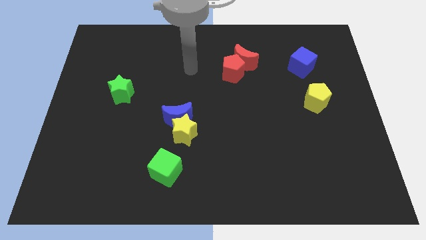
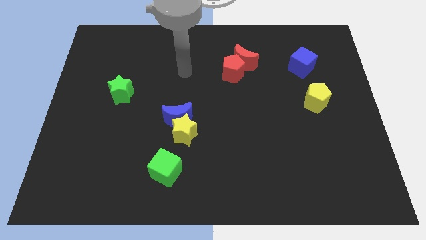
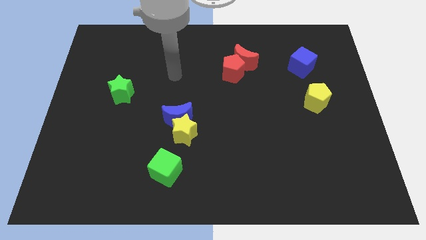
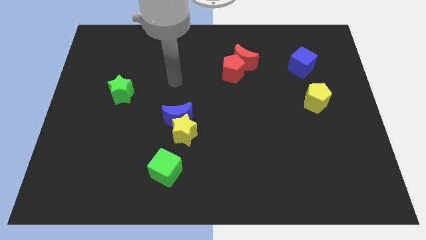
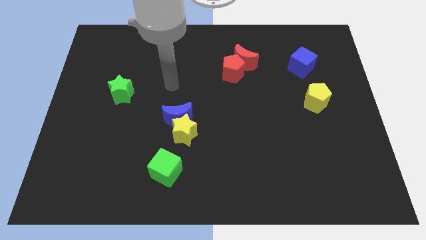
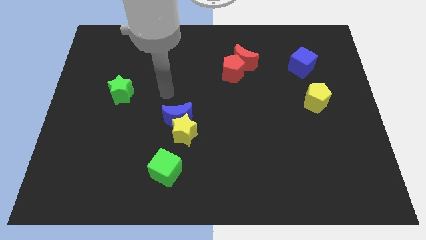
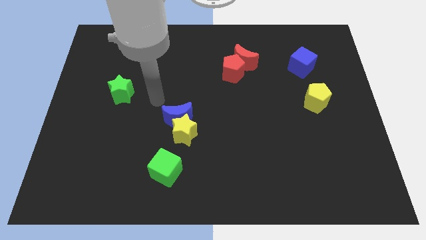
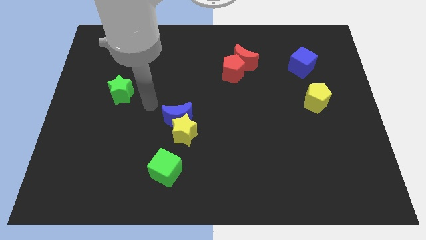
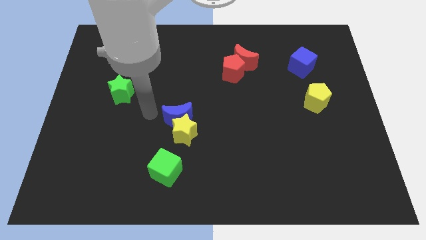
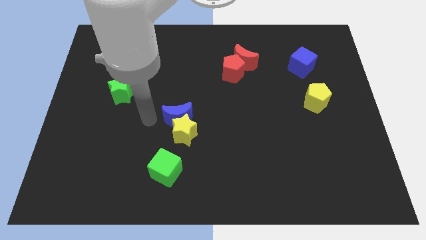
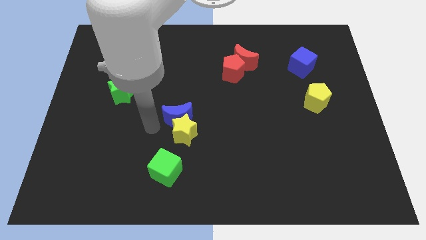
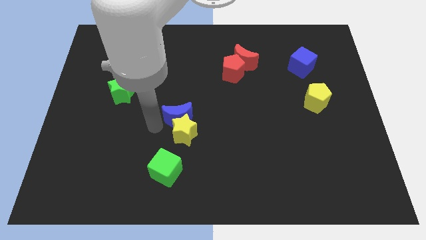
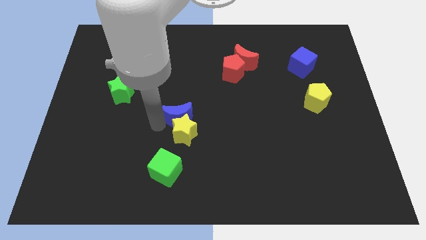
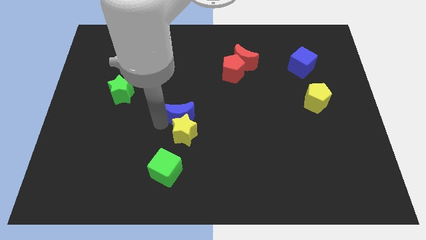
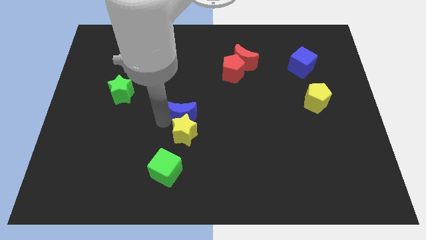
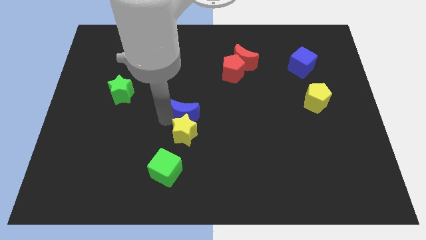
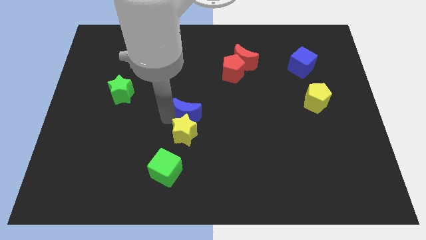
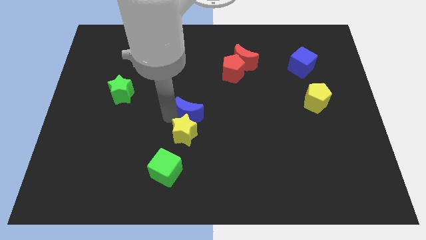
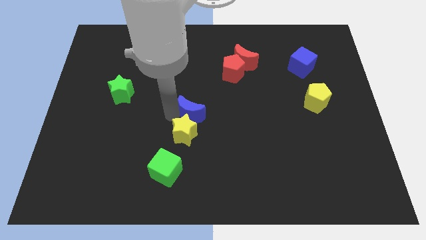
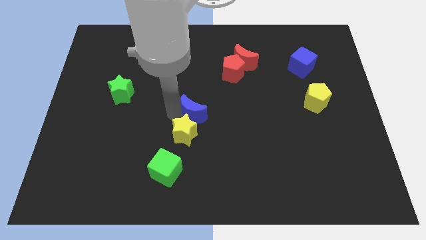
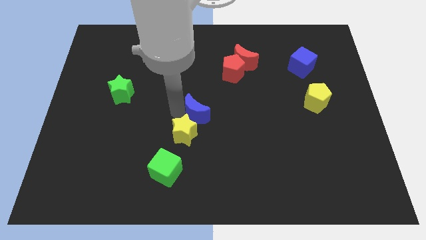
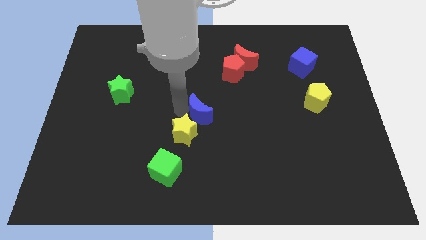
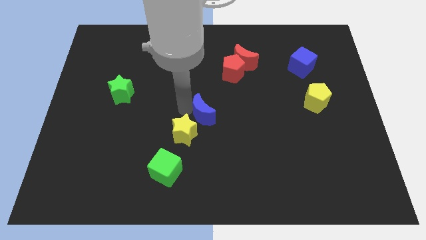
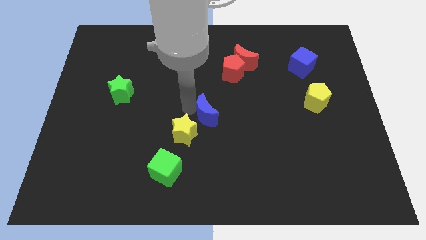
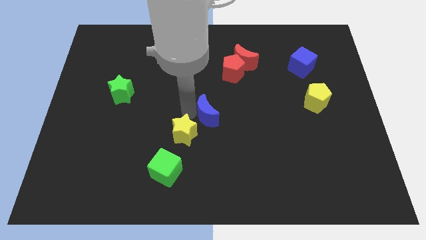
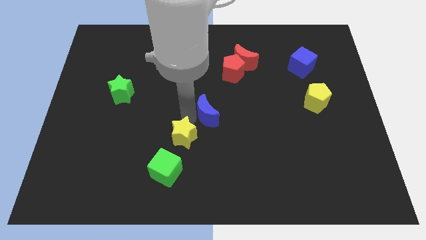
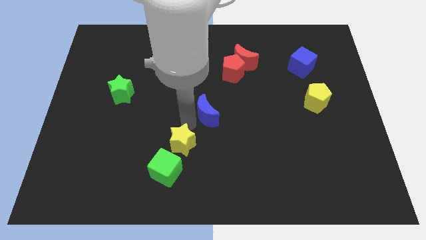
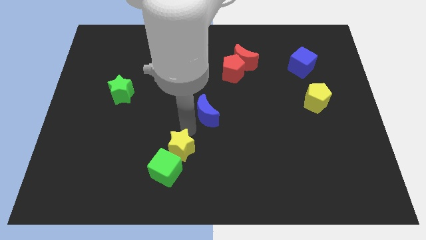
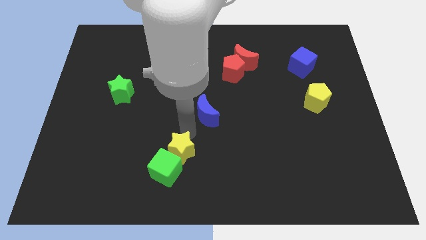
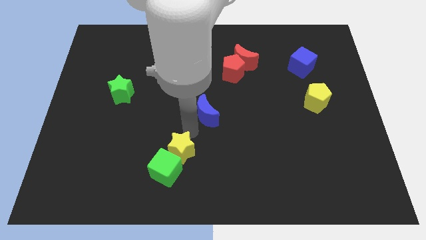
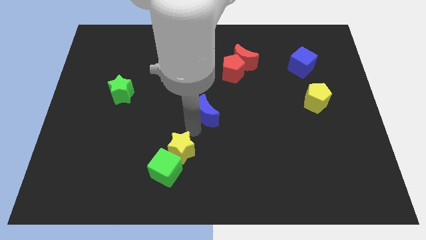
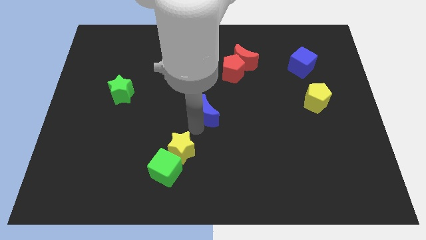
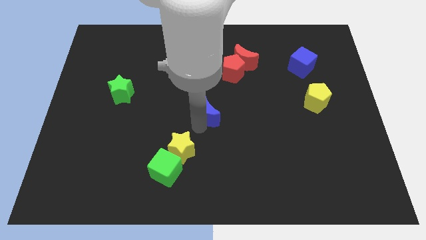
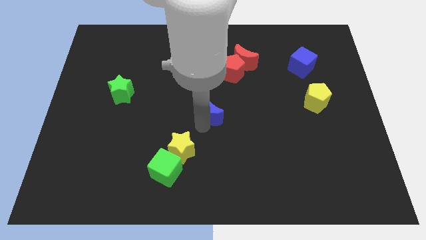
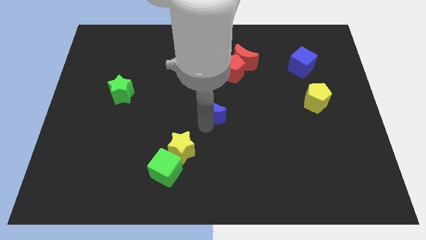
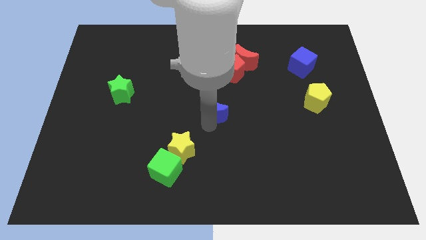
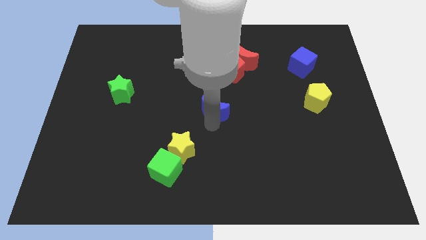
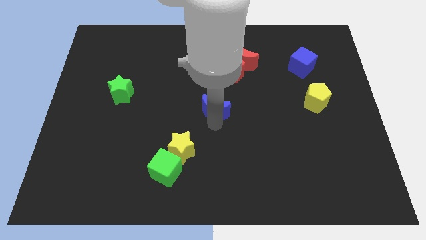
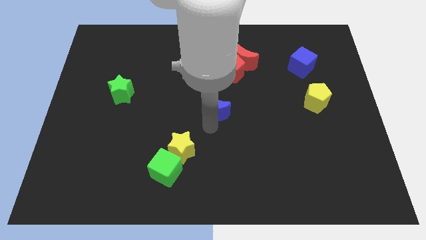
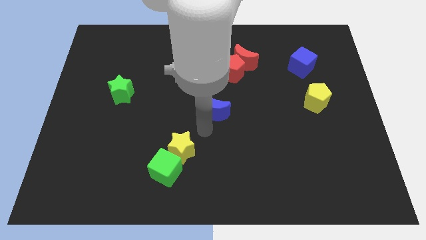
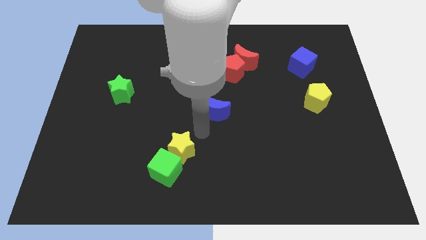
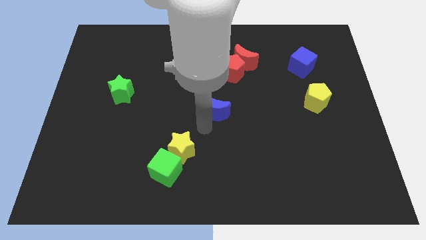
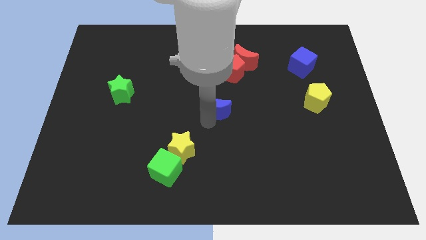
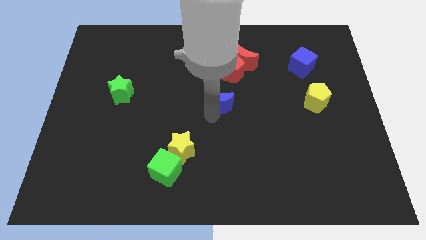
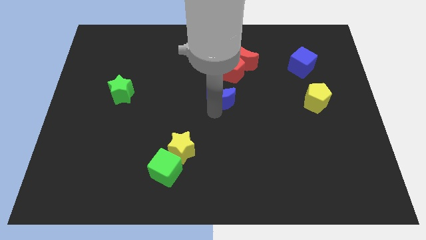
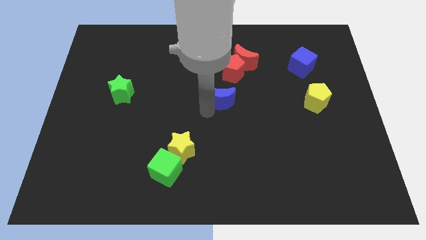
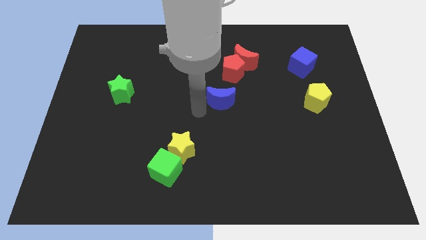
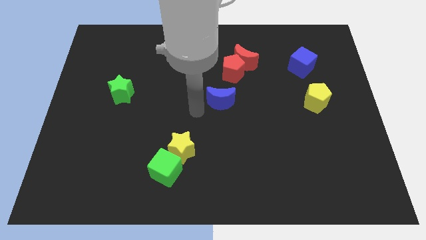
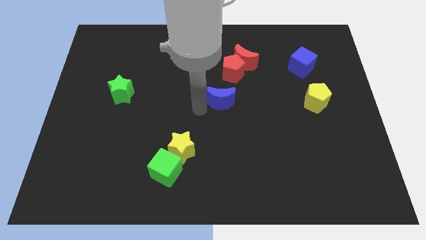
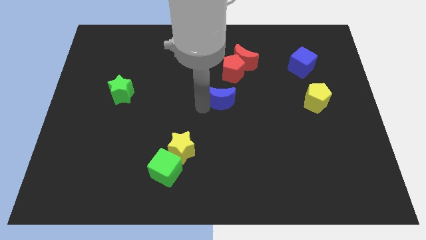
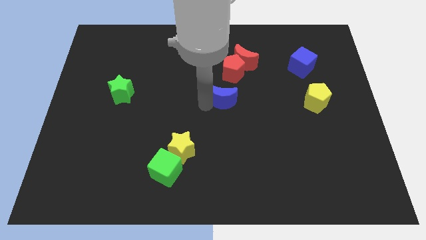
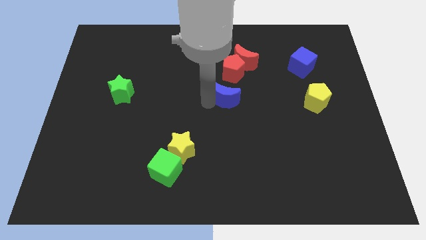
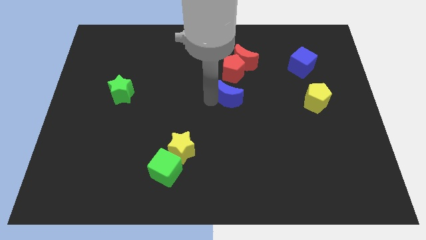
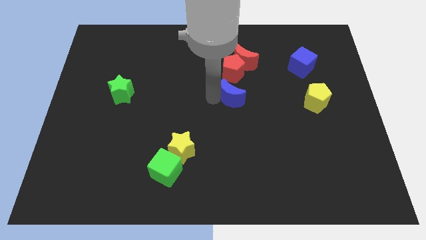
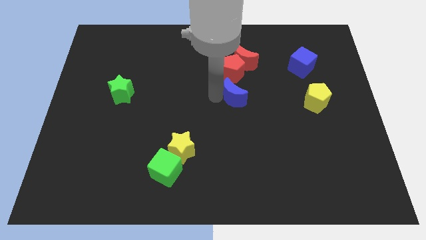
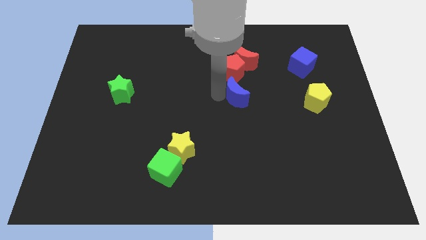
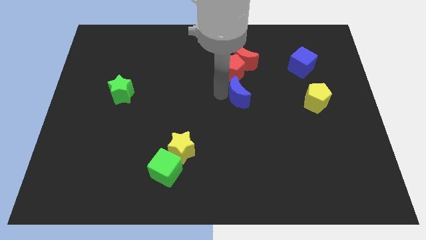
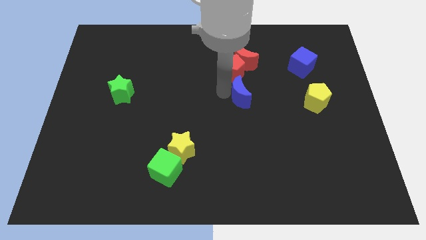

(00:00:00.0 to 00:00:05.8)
slide the blue moon diagonally down and to the right of the red pentagon

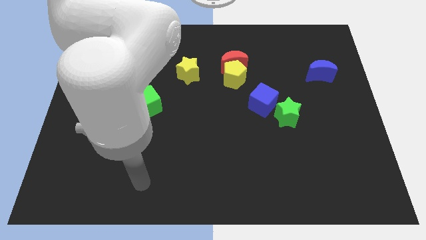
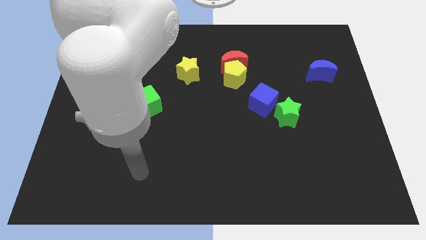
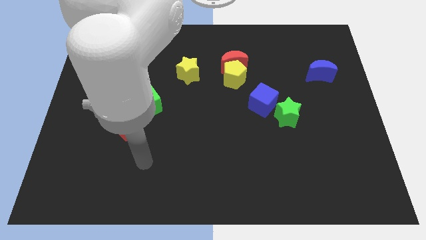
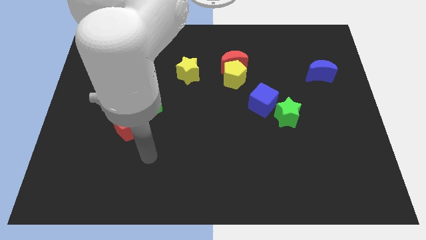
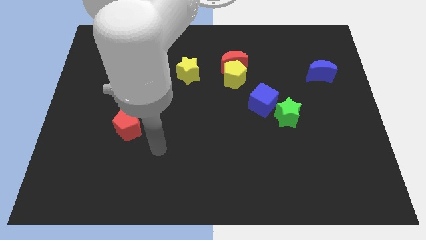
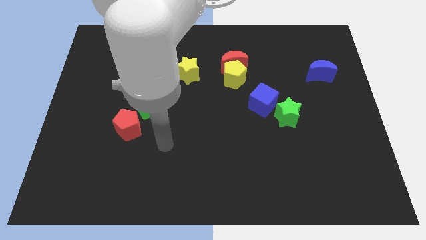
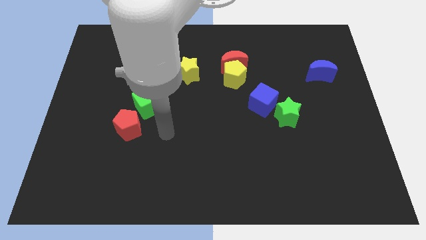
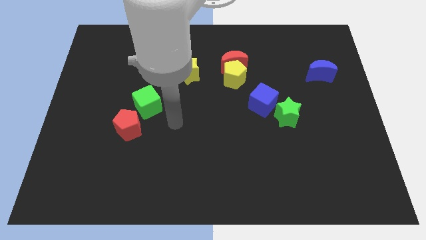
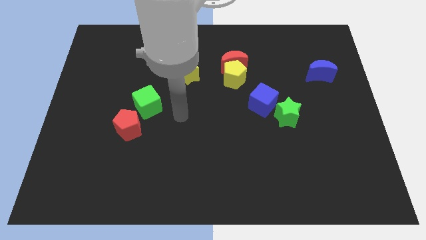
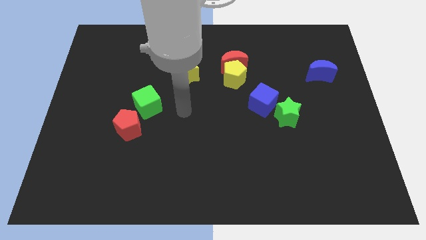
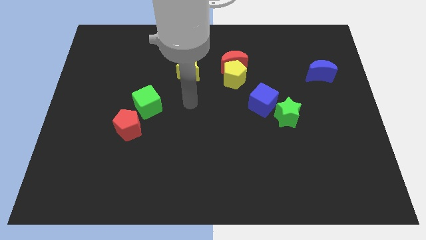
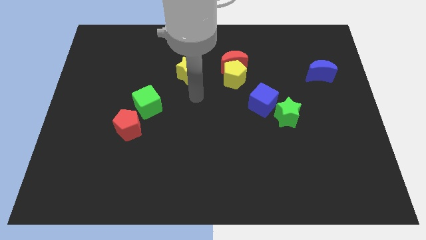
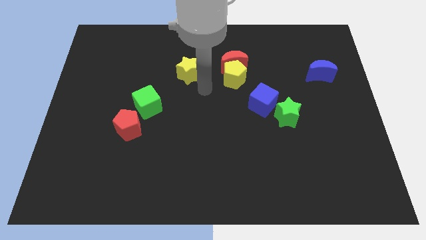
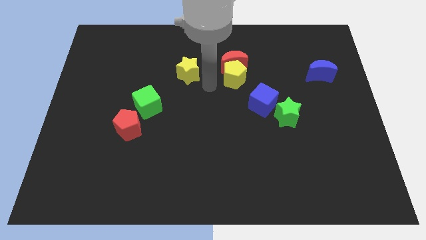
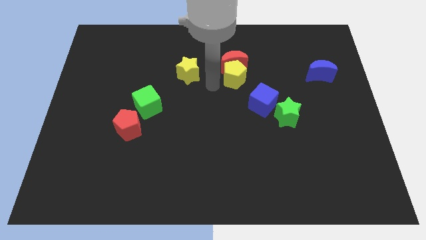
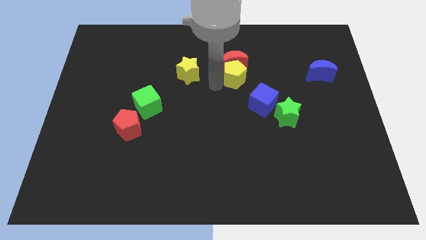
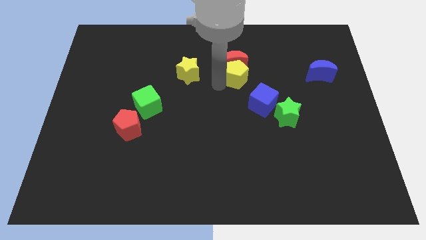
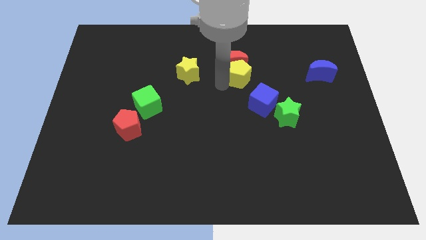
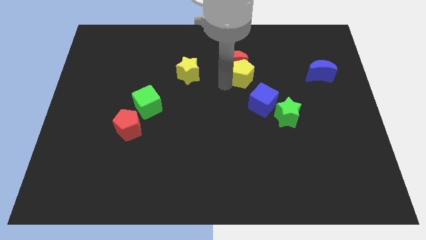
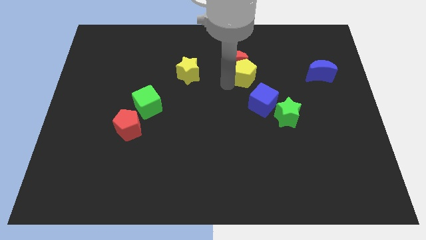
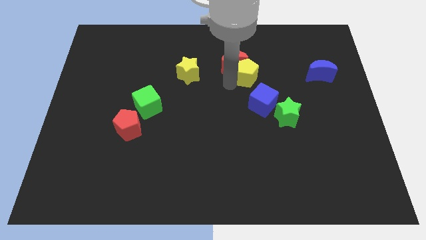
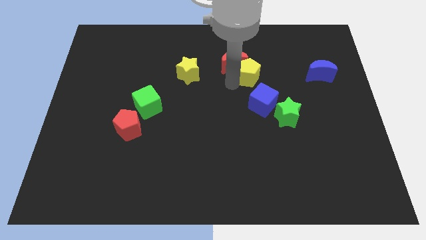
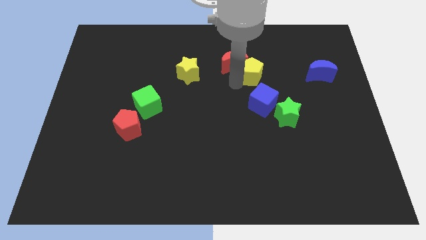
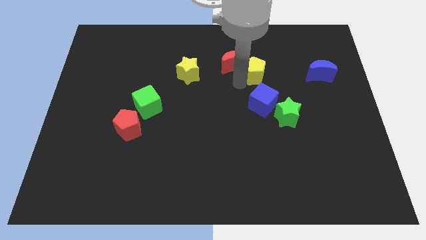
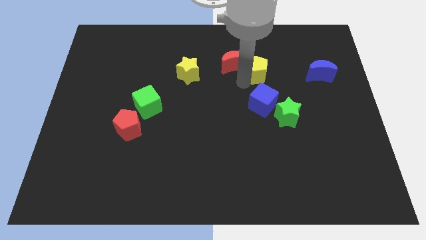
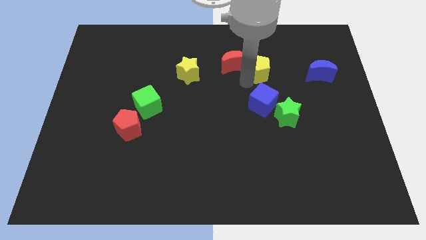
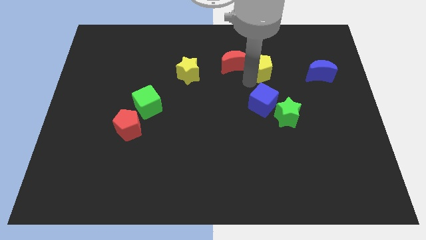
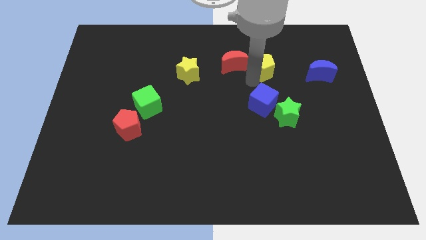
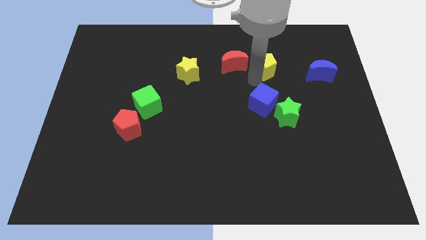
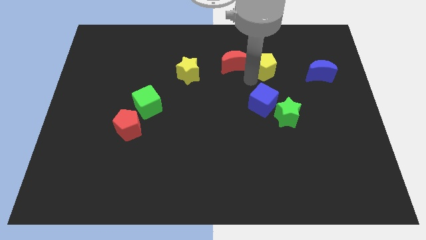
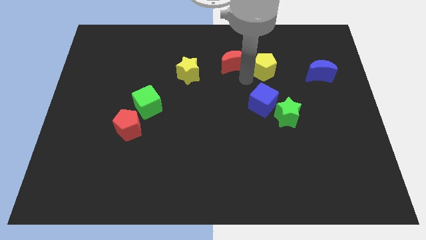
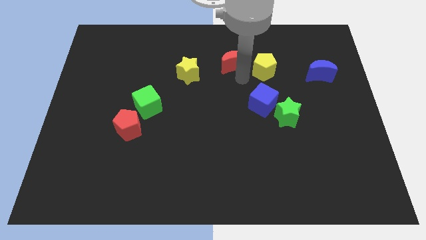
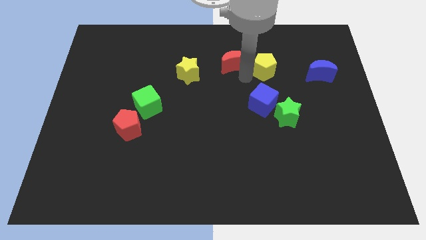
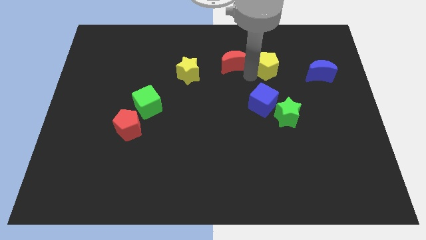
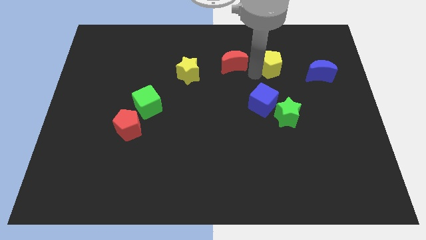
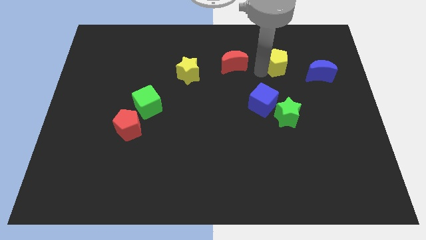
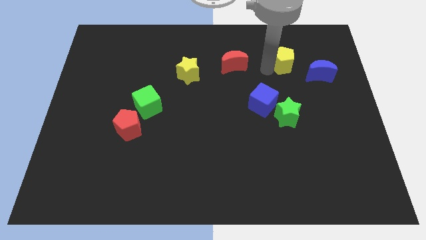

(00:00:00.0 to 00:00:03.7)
push the yellow pentagon to the top left of the blue moon
